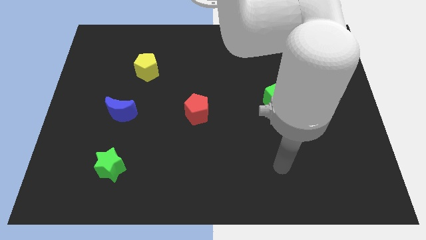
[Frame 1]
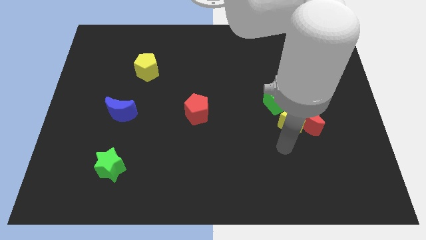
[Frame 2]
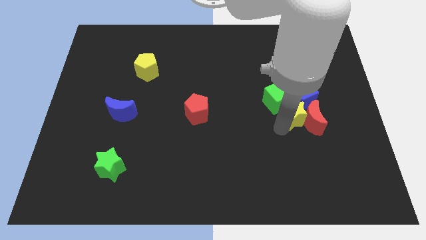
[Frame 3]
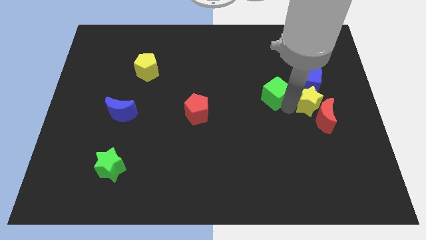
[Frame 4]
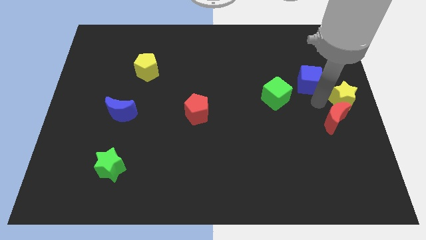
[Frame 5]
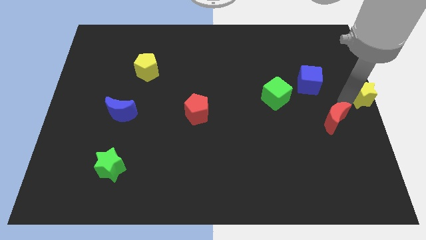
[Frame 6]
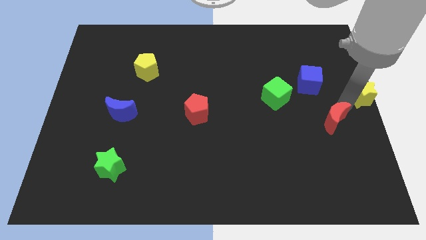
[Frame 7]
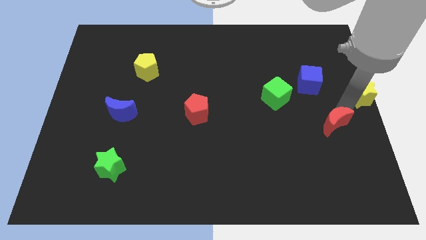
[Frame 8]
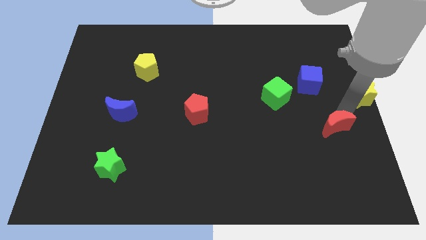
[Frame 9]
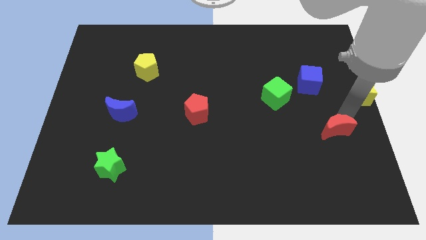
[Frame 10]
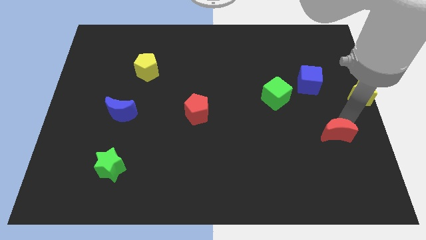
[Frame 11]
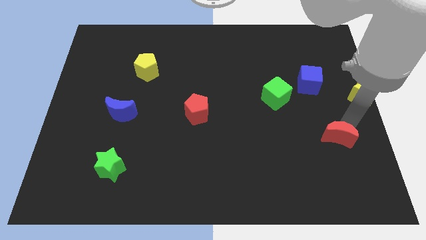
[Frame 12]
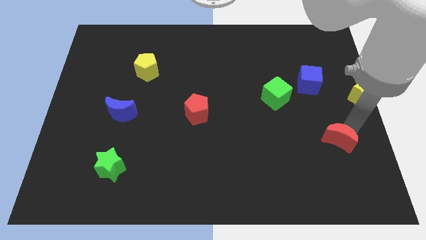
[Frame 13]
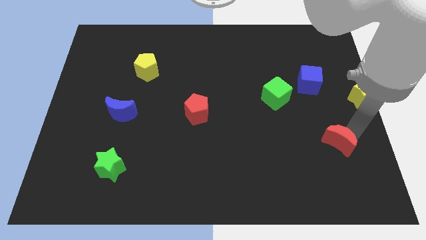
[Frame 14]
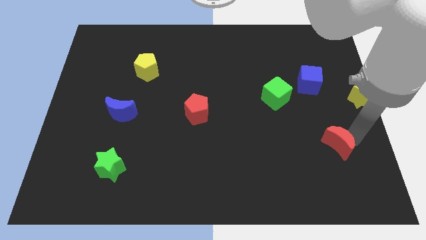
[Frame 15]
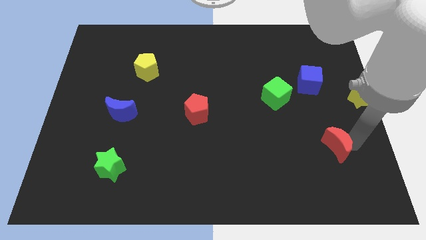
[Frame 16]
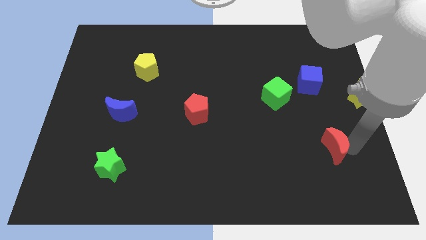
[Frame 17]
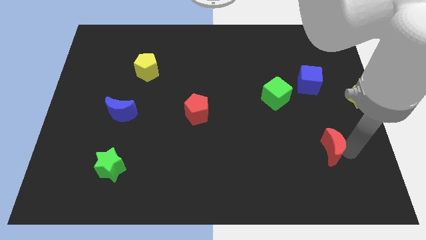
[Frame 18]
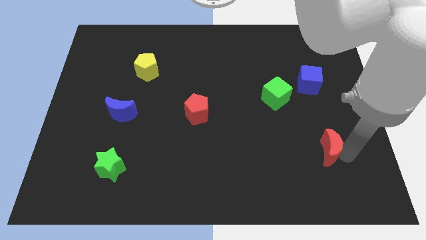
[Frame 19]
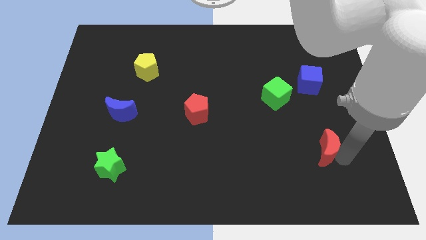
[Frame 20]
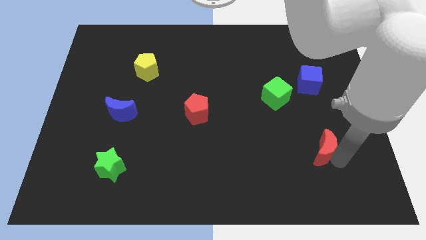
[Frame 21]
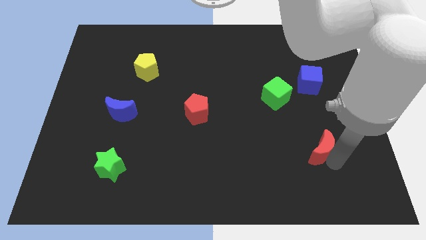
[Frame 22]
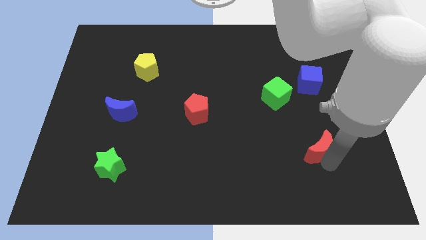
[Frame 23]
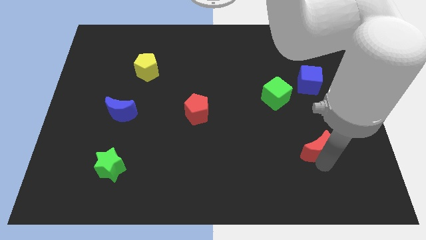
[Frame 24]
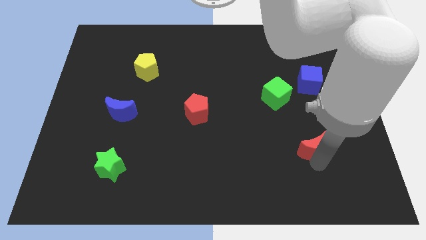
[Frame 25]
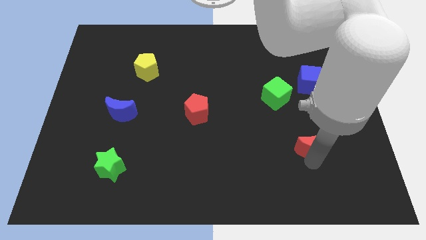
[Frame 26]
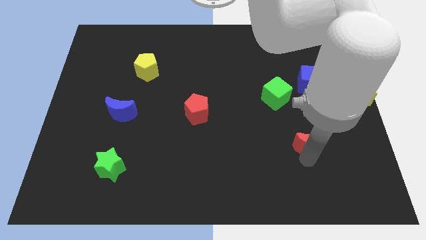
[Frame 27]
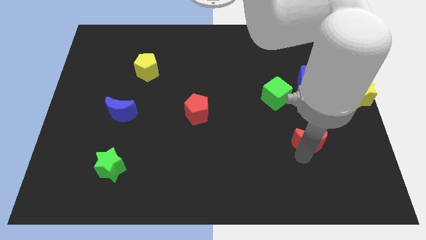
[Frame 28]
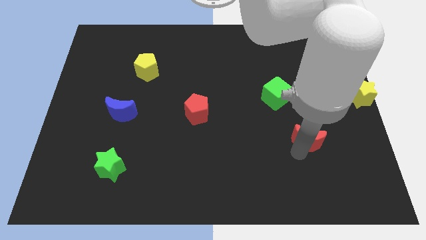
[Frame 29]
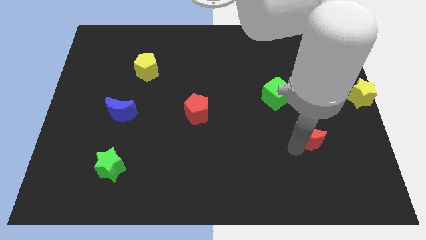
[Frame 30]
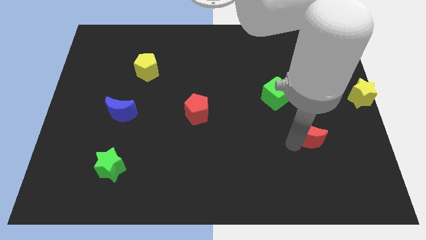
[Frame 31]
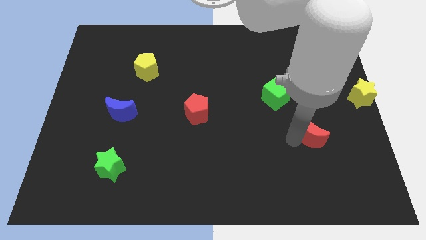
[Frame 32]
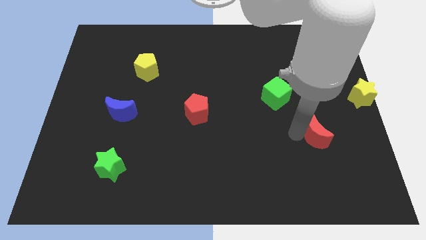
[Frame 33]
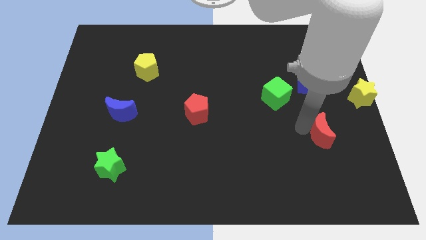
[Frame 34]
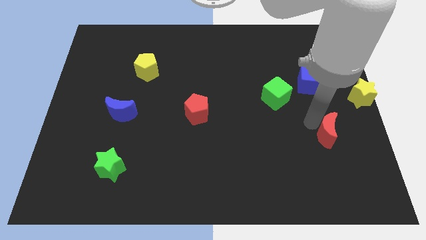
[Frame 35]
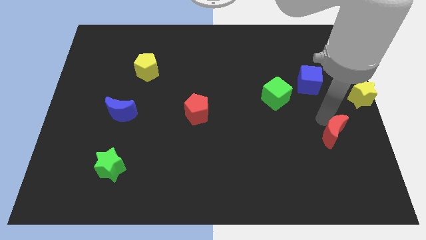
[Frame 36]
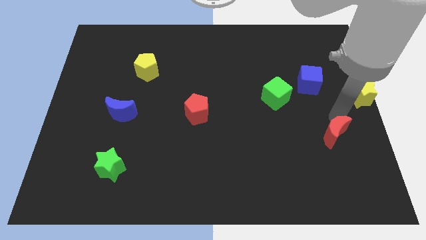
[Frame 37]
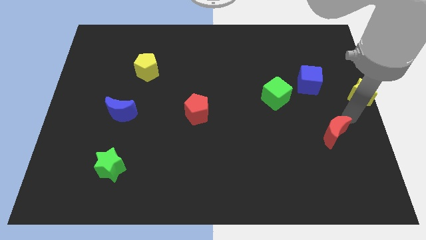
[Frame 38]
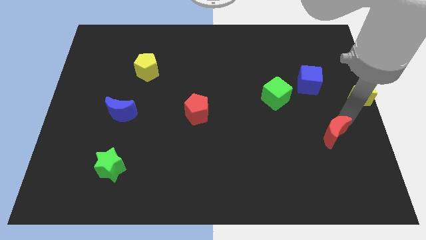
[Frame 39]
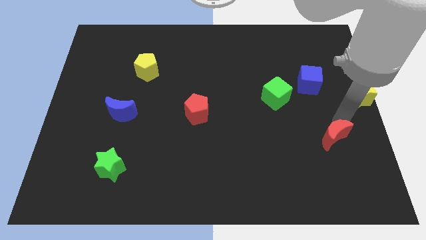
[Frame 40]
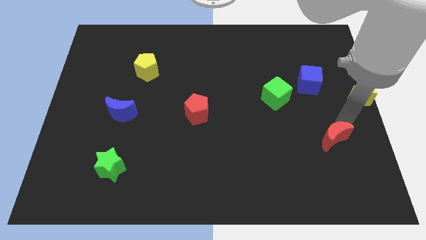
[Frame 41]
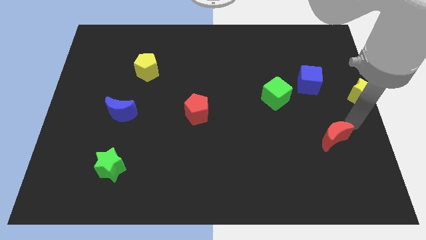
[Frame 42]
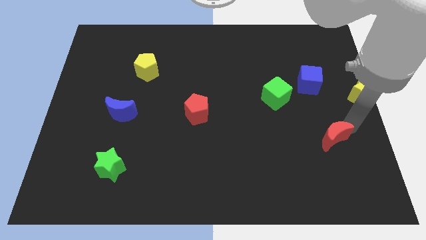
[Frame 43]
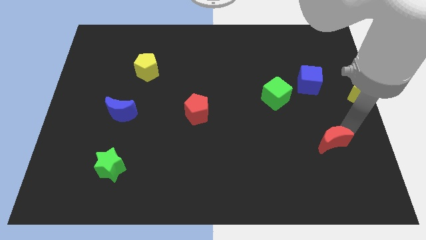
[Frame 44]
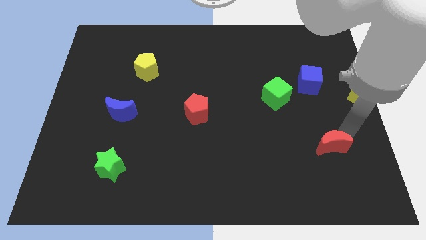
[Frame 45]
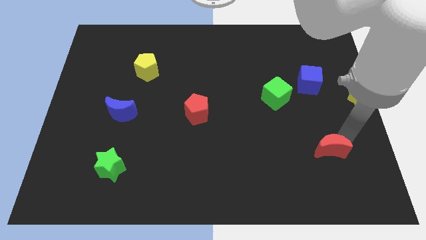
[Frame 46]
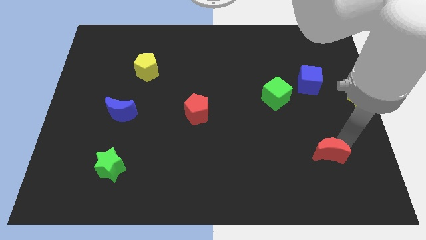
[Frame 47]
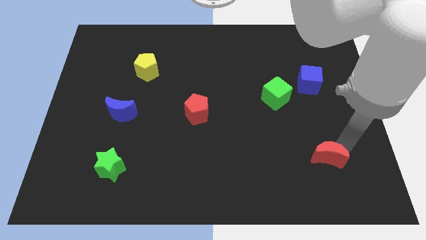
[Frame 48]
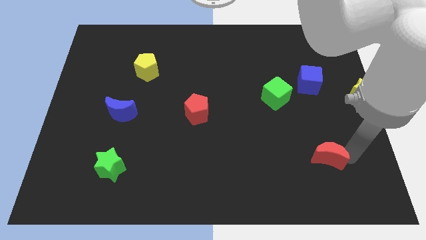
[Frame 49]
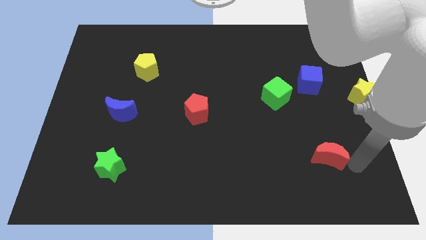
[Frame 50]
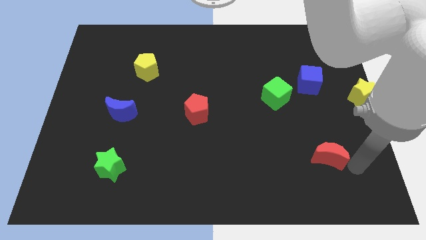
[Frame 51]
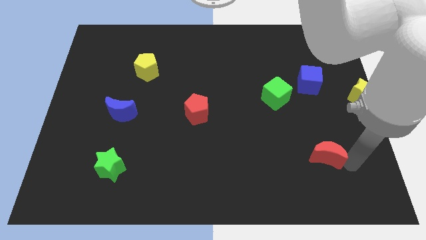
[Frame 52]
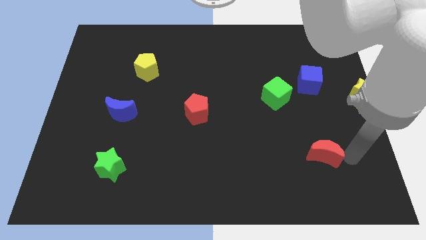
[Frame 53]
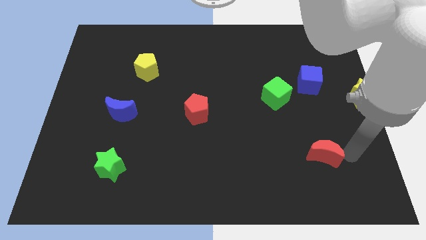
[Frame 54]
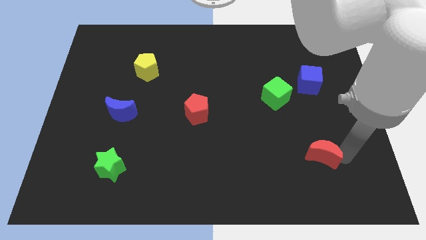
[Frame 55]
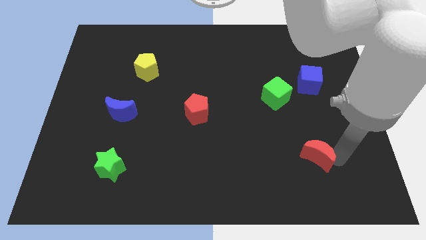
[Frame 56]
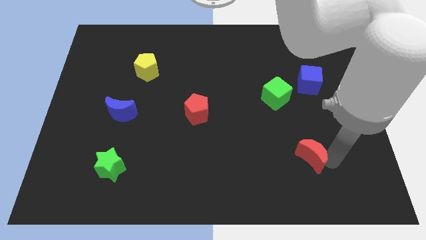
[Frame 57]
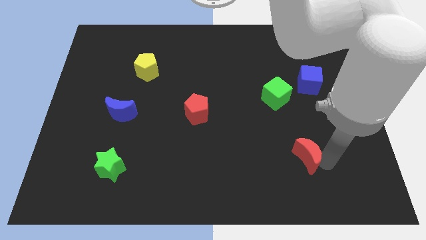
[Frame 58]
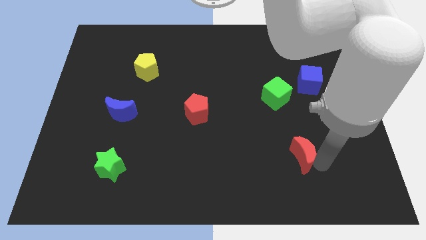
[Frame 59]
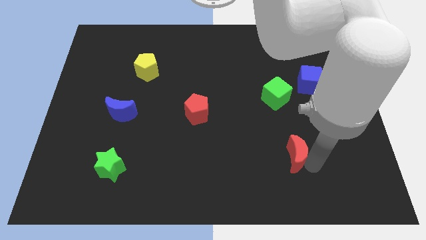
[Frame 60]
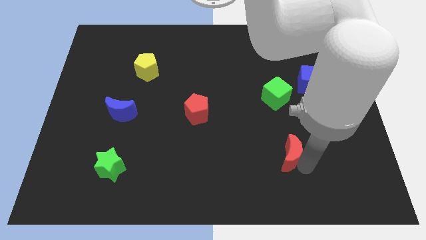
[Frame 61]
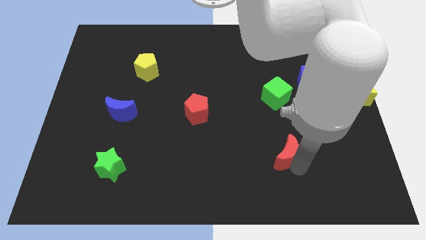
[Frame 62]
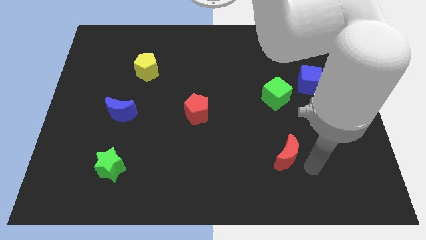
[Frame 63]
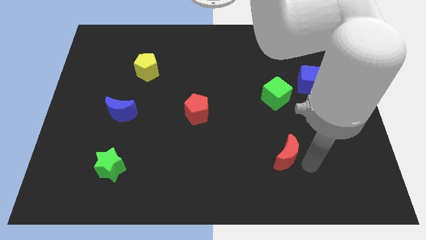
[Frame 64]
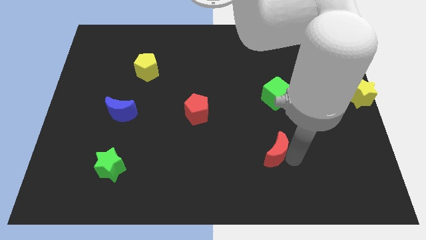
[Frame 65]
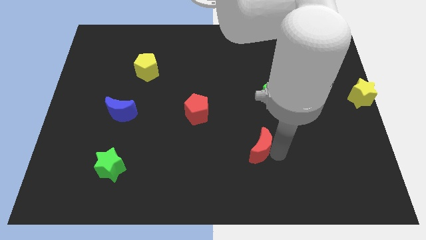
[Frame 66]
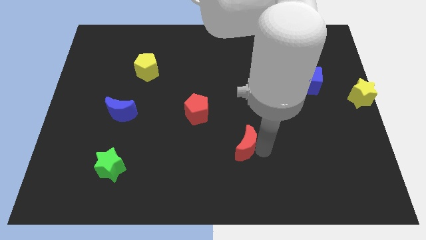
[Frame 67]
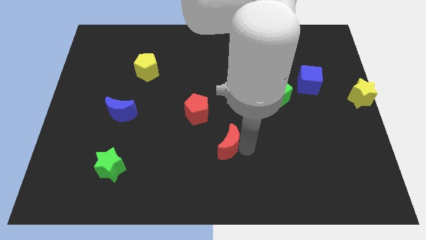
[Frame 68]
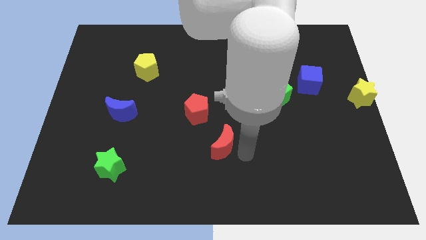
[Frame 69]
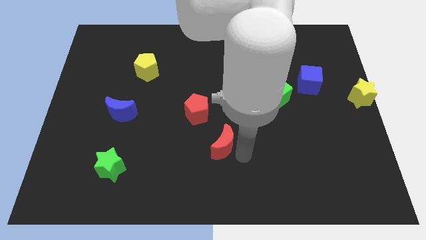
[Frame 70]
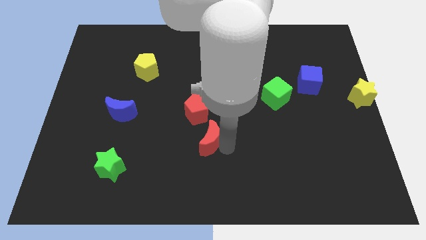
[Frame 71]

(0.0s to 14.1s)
slide the red moon to the left

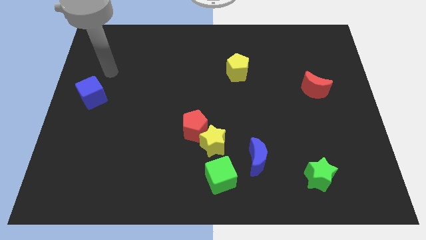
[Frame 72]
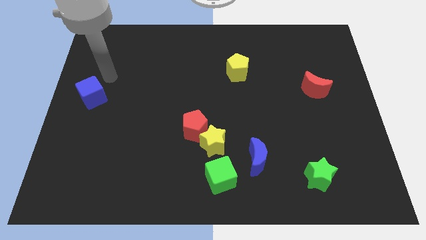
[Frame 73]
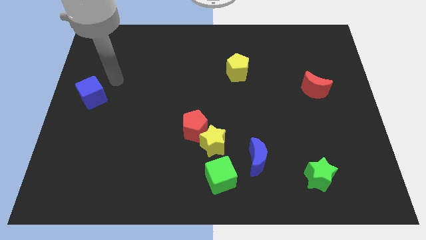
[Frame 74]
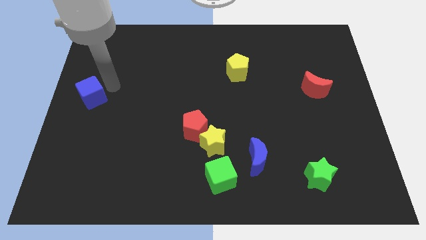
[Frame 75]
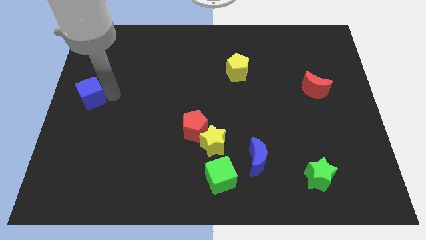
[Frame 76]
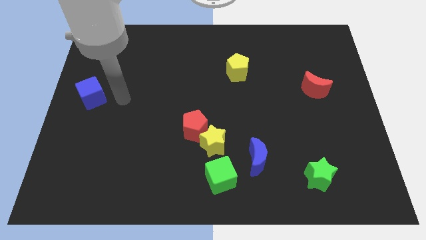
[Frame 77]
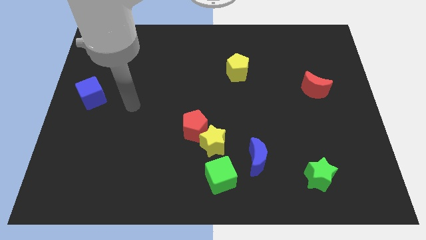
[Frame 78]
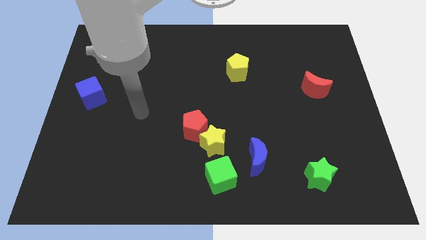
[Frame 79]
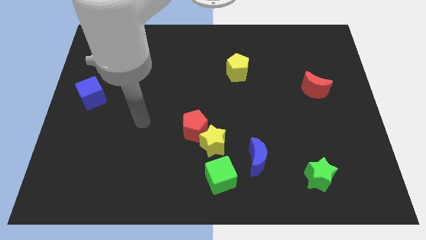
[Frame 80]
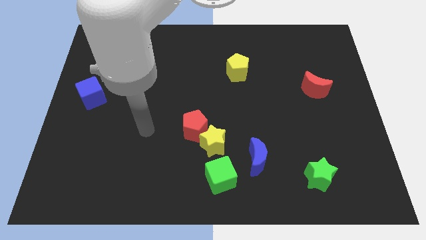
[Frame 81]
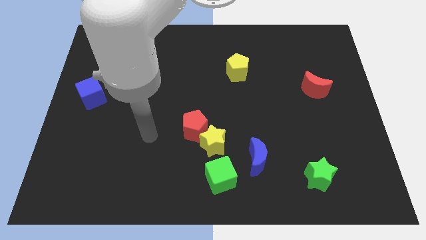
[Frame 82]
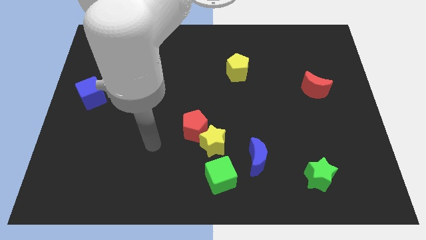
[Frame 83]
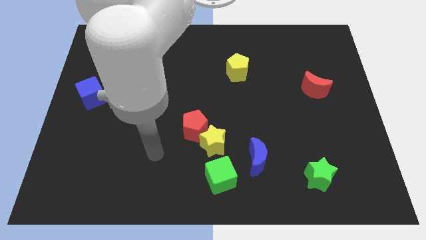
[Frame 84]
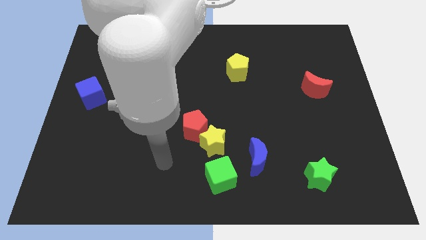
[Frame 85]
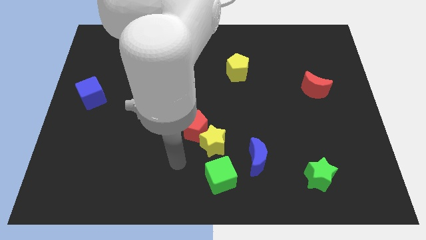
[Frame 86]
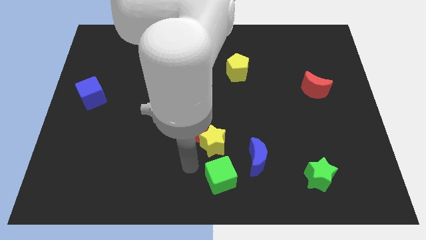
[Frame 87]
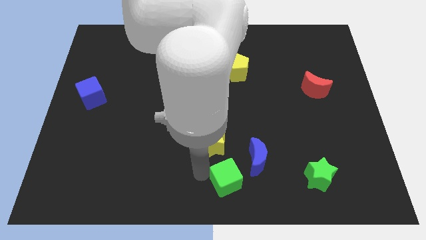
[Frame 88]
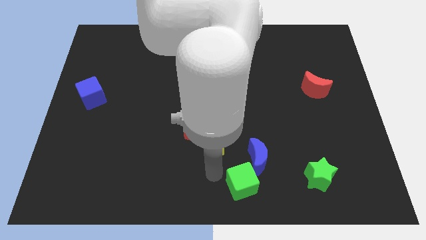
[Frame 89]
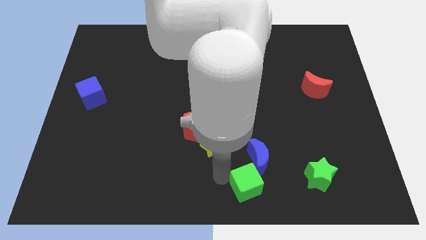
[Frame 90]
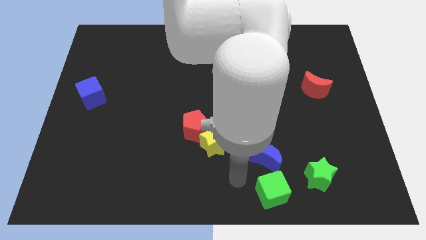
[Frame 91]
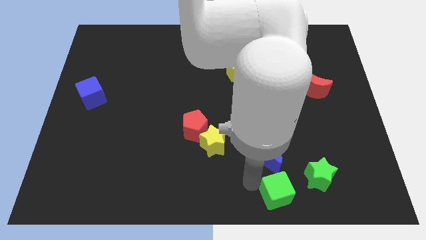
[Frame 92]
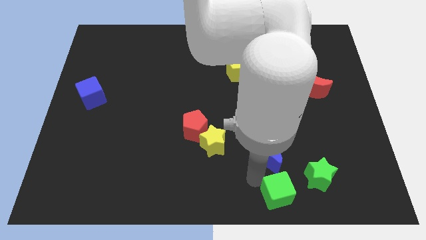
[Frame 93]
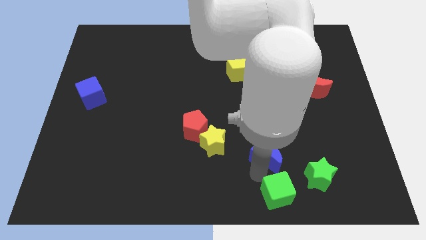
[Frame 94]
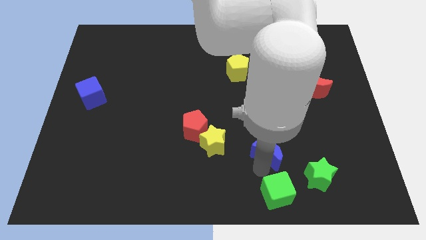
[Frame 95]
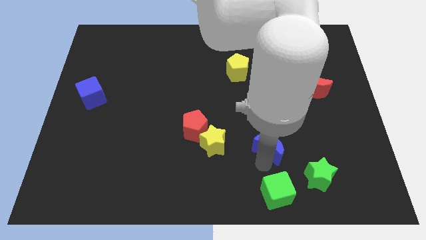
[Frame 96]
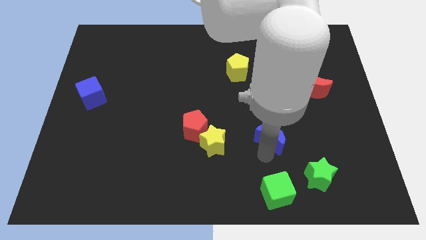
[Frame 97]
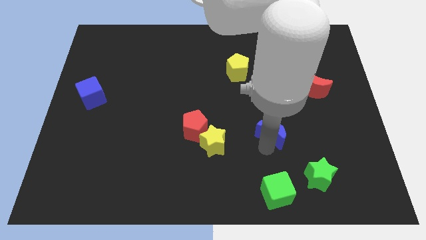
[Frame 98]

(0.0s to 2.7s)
slightly push the blue moon diagonally upwards and to the right
